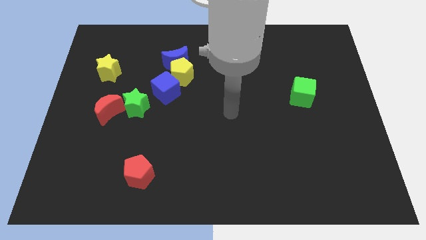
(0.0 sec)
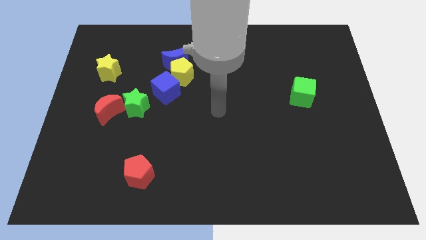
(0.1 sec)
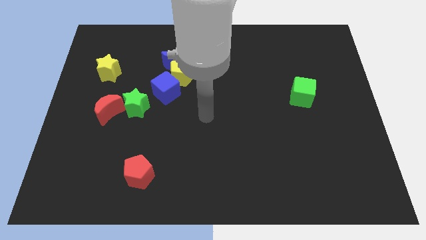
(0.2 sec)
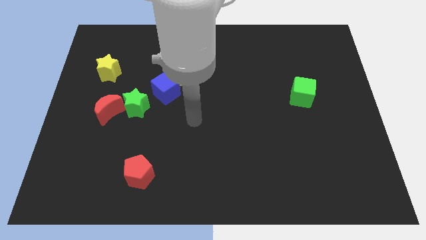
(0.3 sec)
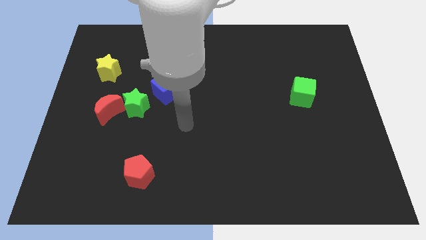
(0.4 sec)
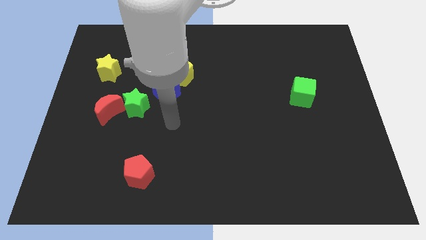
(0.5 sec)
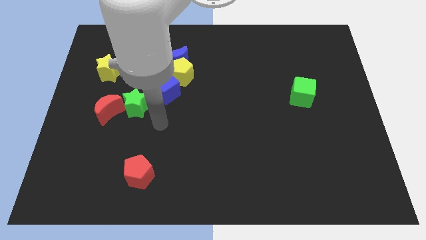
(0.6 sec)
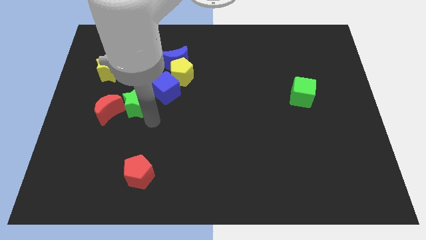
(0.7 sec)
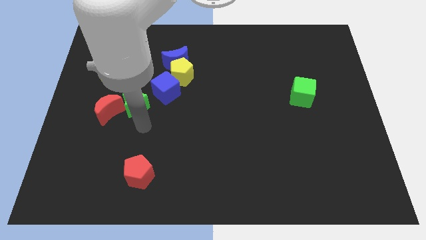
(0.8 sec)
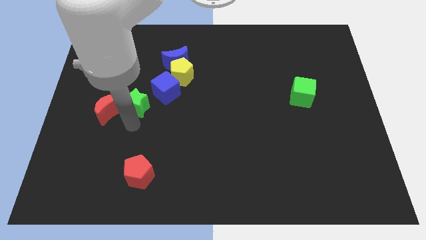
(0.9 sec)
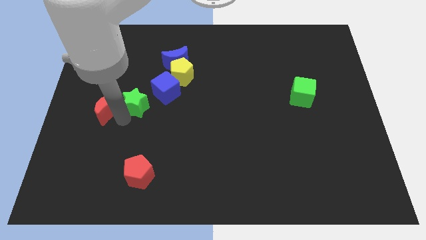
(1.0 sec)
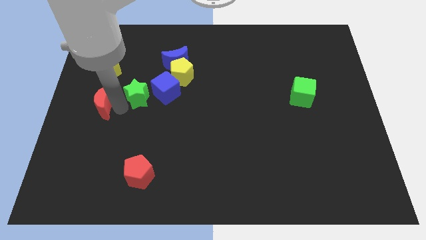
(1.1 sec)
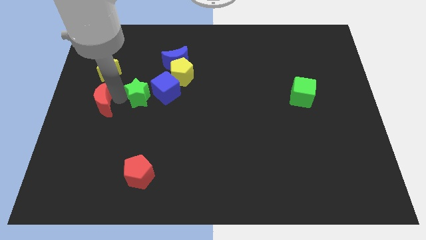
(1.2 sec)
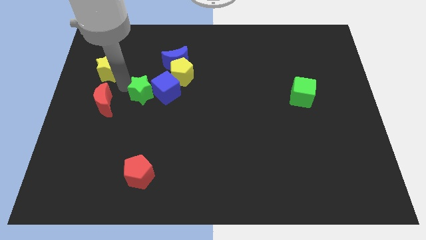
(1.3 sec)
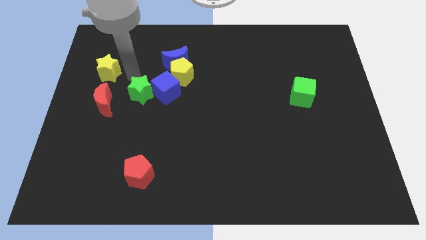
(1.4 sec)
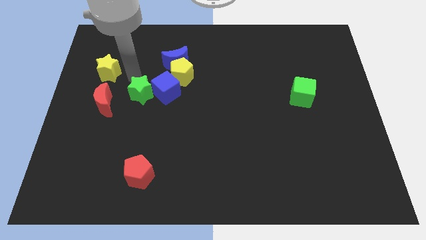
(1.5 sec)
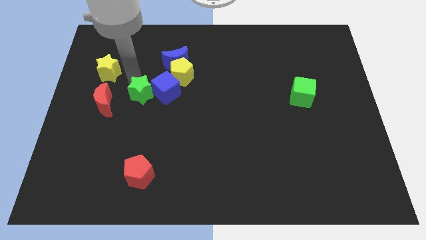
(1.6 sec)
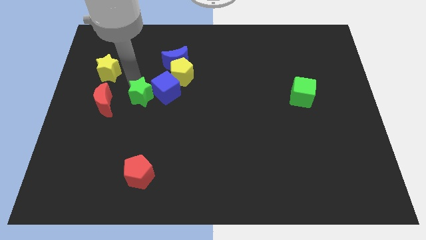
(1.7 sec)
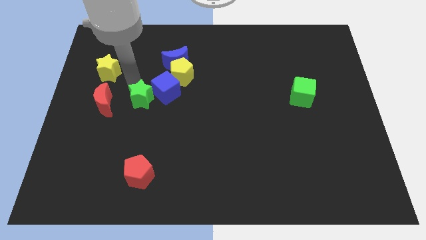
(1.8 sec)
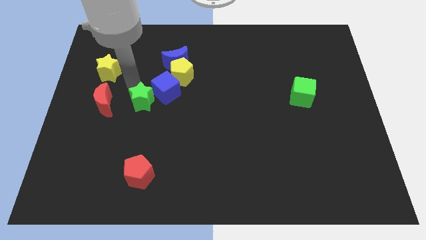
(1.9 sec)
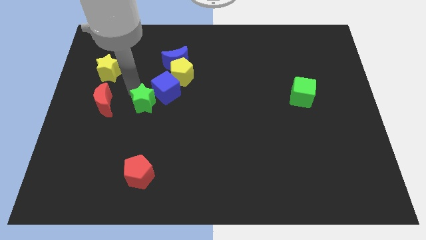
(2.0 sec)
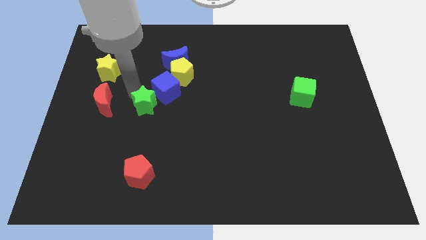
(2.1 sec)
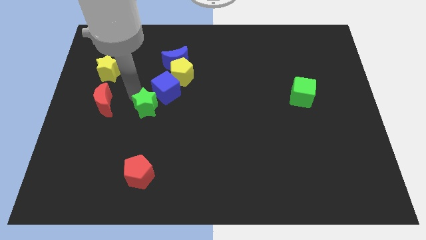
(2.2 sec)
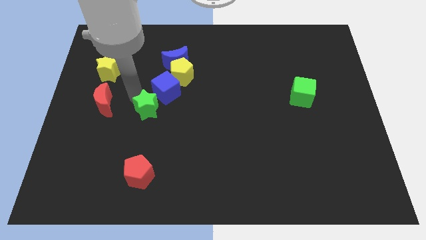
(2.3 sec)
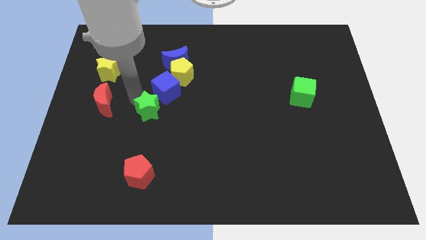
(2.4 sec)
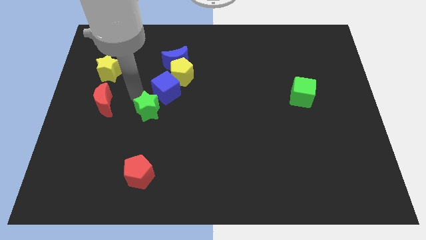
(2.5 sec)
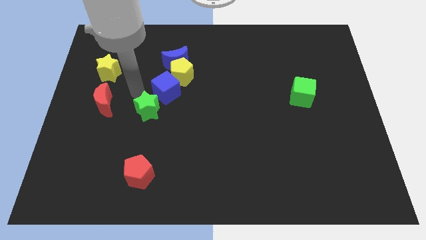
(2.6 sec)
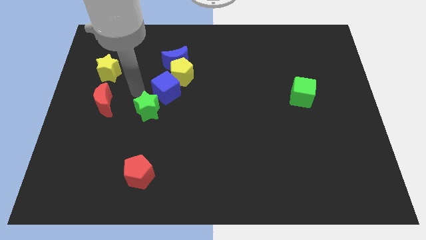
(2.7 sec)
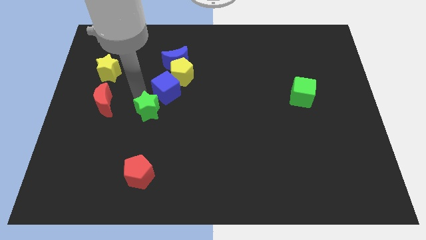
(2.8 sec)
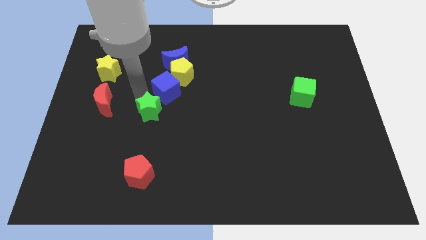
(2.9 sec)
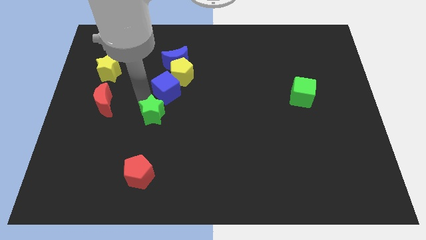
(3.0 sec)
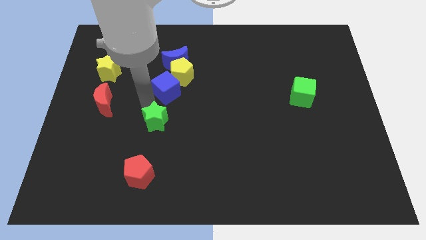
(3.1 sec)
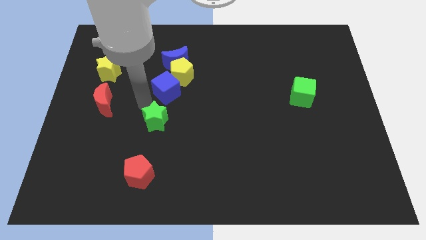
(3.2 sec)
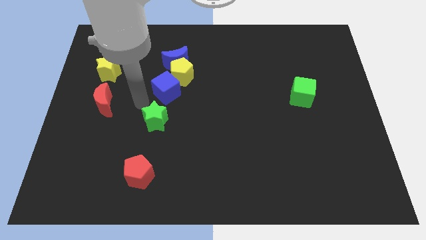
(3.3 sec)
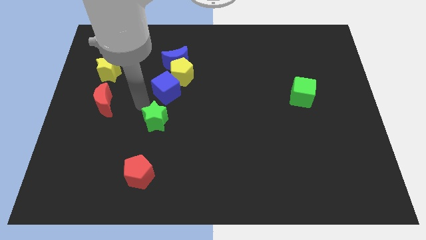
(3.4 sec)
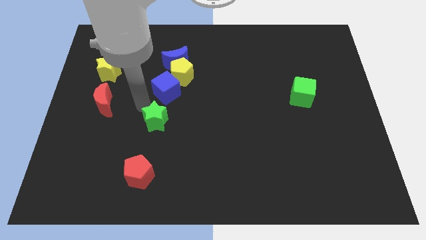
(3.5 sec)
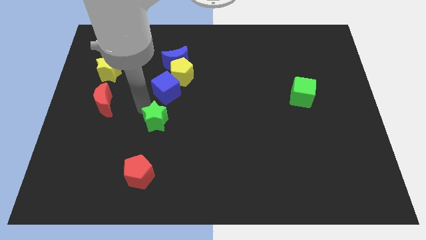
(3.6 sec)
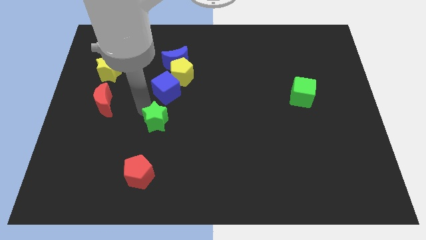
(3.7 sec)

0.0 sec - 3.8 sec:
move the green star down and then right a little

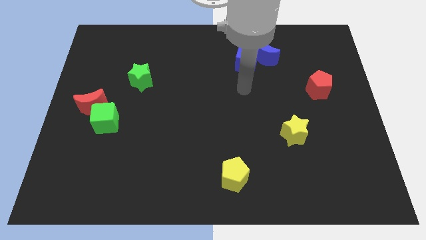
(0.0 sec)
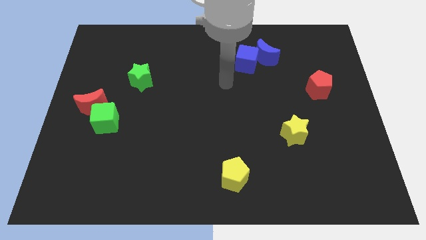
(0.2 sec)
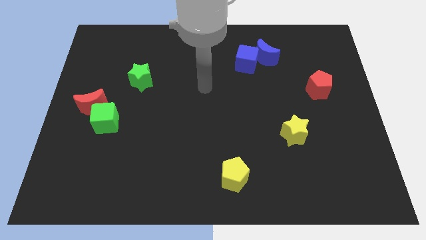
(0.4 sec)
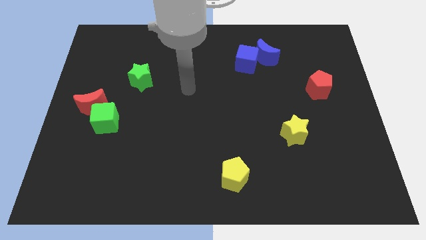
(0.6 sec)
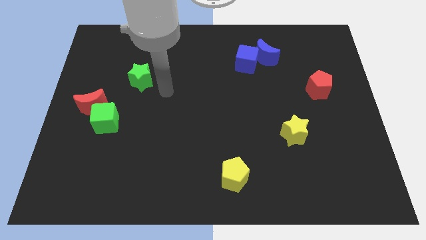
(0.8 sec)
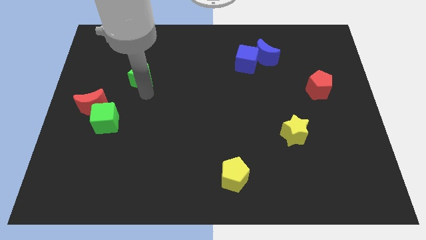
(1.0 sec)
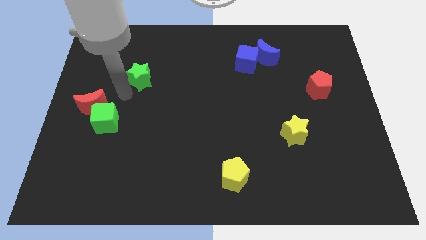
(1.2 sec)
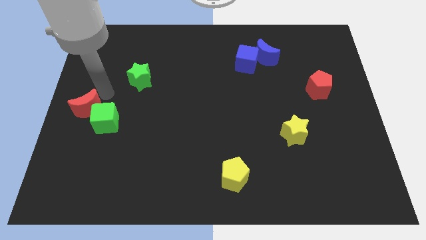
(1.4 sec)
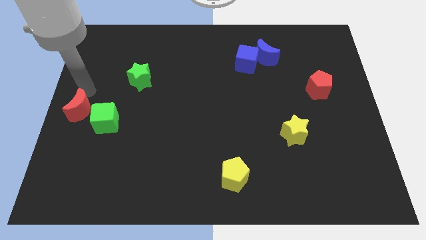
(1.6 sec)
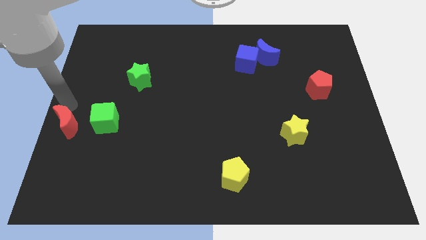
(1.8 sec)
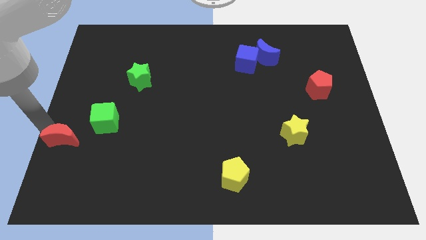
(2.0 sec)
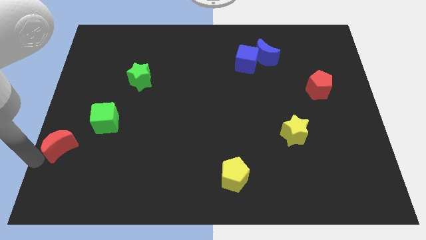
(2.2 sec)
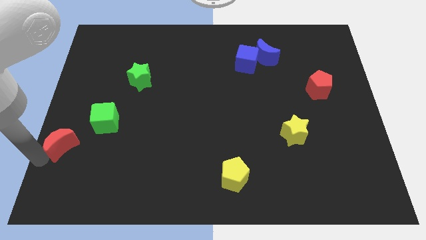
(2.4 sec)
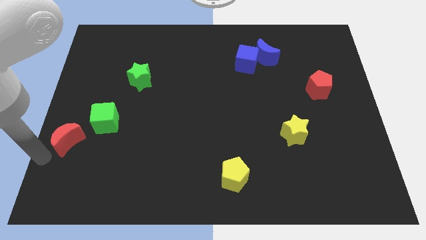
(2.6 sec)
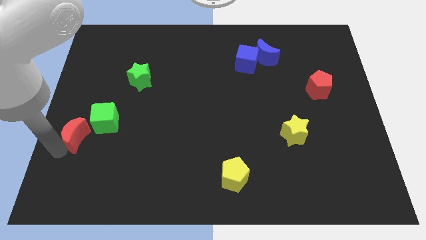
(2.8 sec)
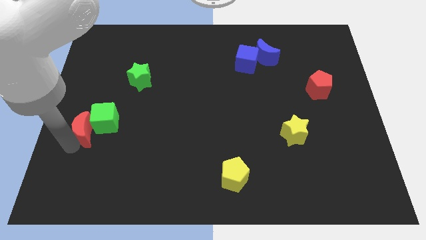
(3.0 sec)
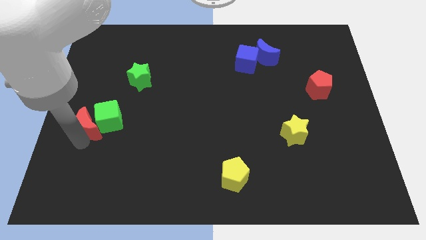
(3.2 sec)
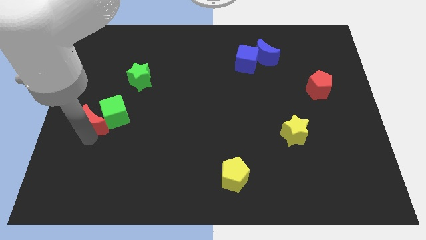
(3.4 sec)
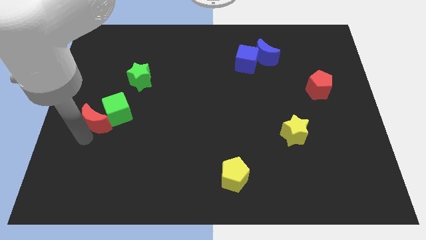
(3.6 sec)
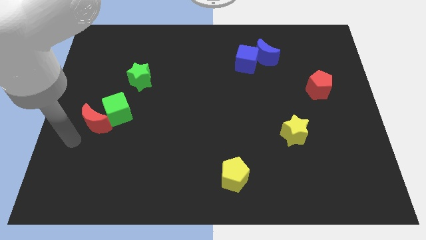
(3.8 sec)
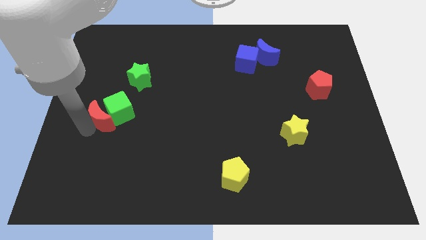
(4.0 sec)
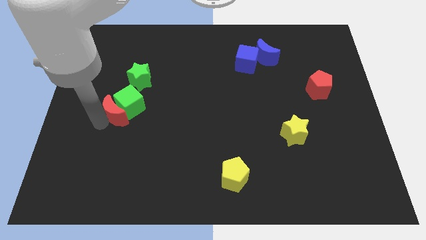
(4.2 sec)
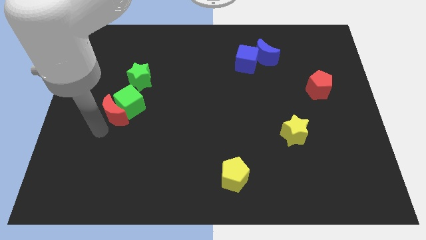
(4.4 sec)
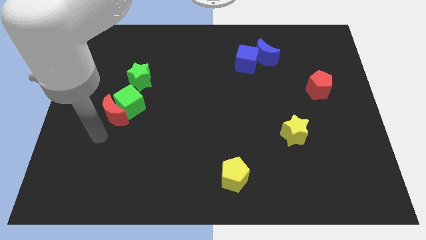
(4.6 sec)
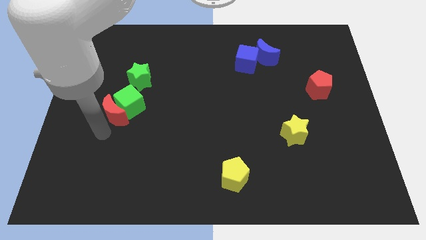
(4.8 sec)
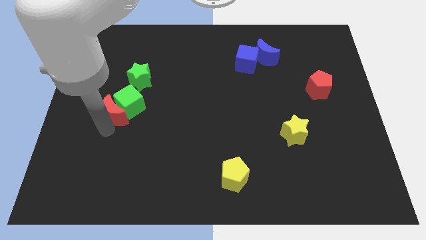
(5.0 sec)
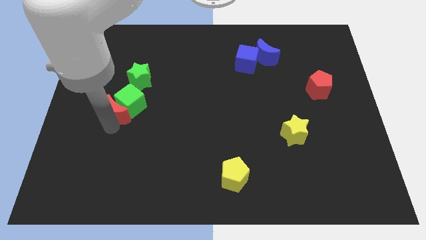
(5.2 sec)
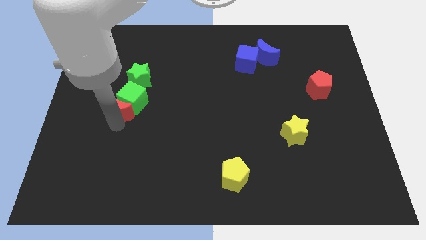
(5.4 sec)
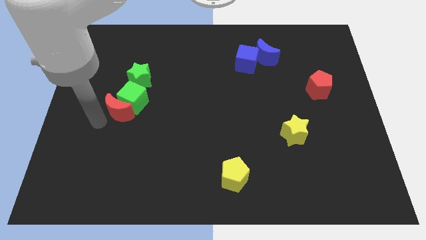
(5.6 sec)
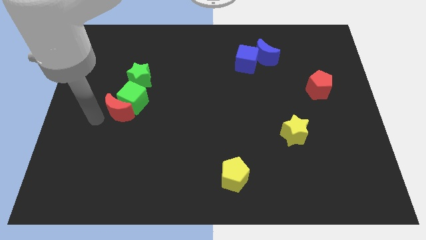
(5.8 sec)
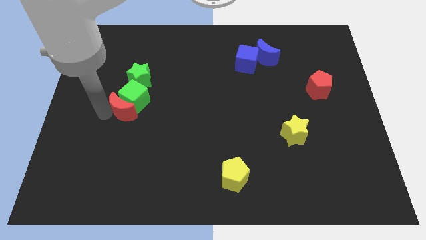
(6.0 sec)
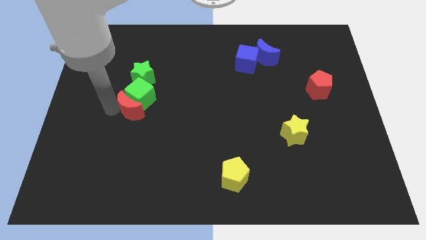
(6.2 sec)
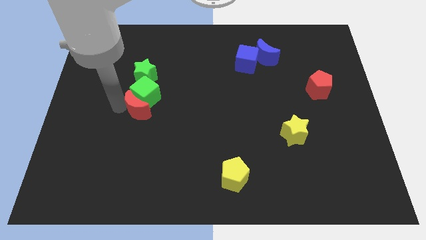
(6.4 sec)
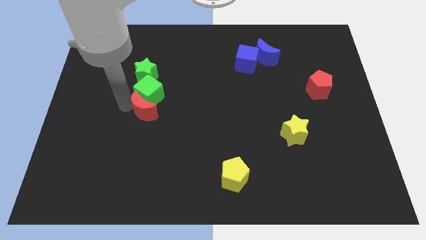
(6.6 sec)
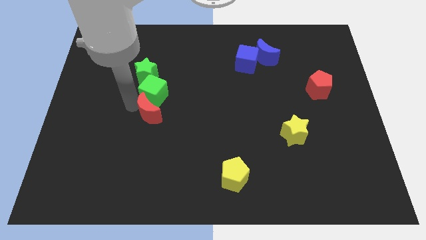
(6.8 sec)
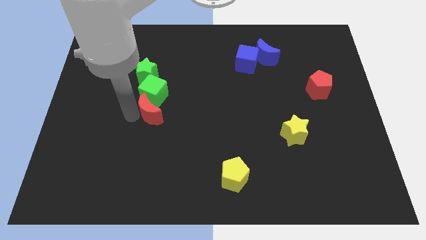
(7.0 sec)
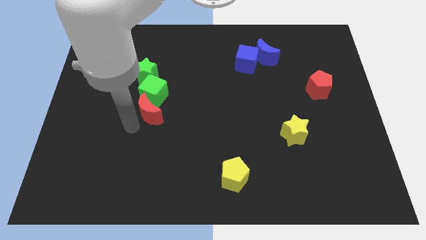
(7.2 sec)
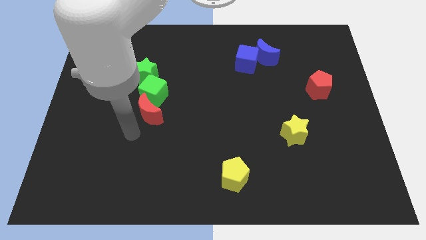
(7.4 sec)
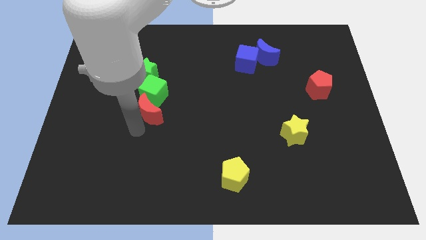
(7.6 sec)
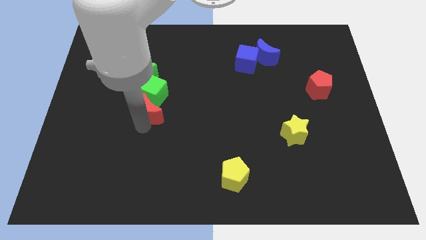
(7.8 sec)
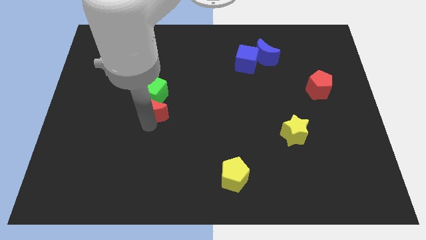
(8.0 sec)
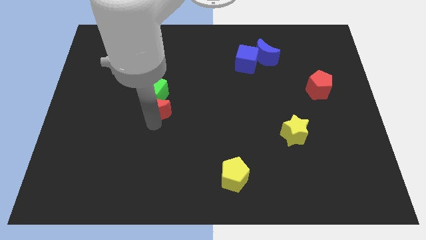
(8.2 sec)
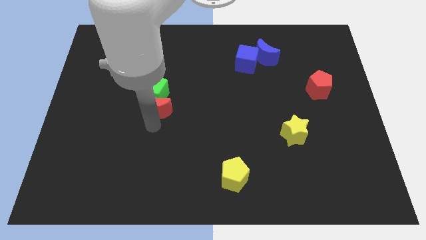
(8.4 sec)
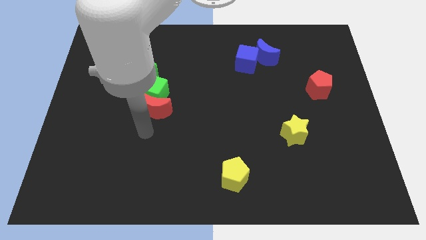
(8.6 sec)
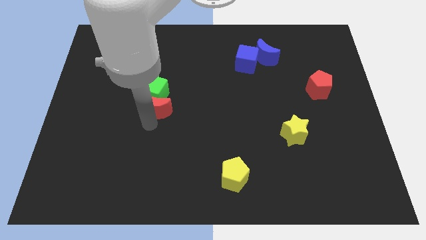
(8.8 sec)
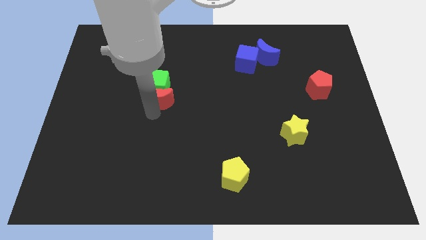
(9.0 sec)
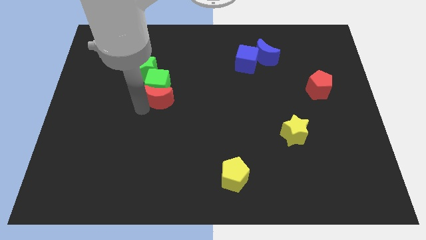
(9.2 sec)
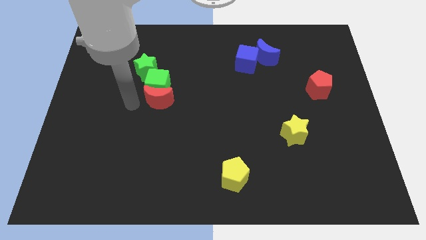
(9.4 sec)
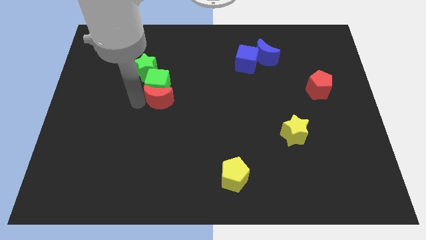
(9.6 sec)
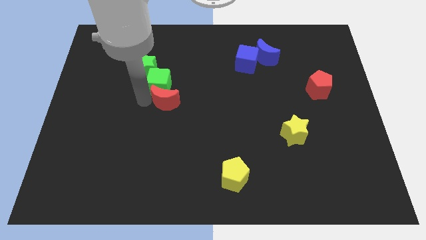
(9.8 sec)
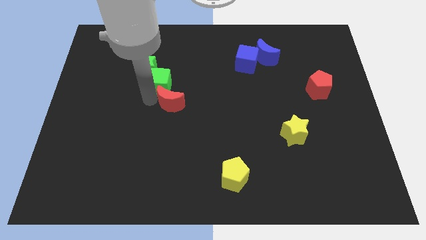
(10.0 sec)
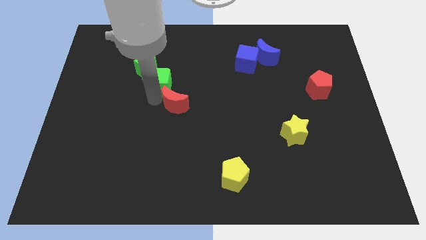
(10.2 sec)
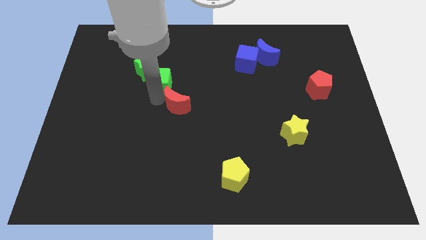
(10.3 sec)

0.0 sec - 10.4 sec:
move the red moon to the right
